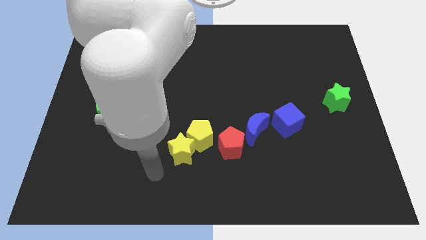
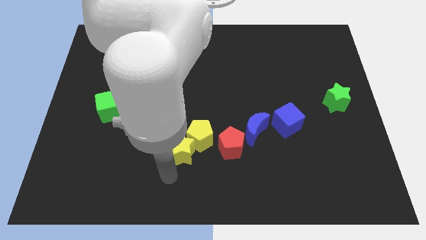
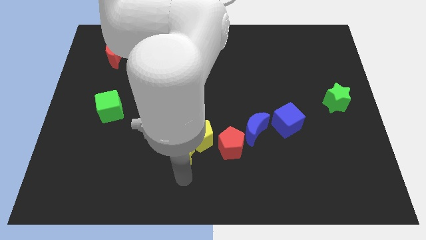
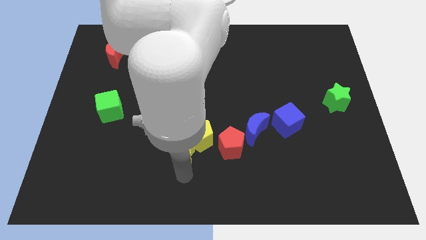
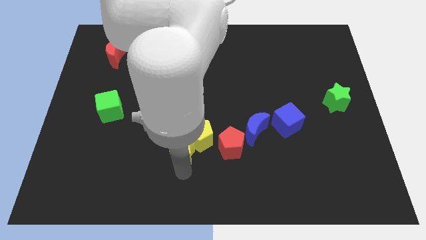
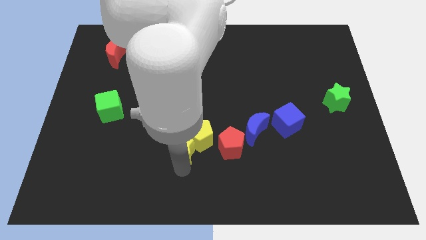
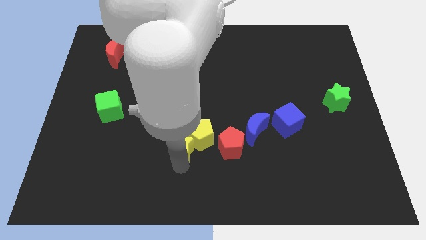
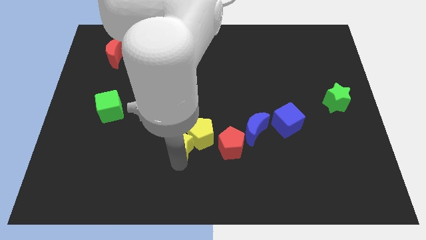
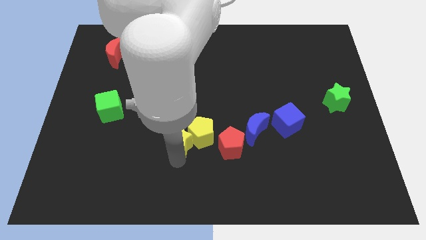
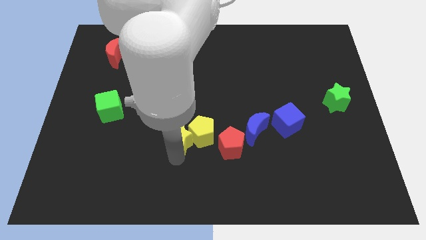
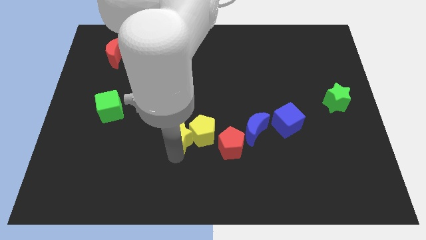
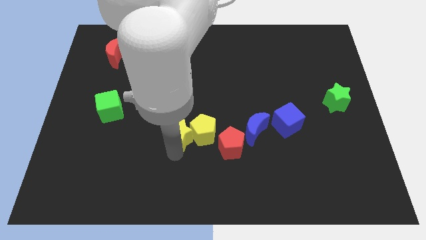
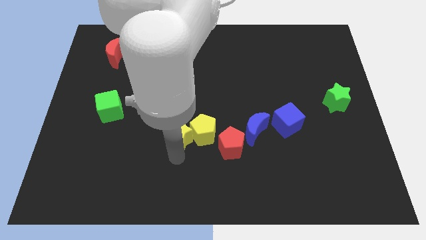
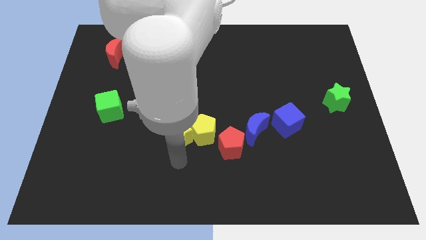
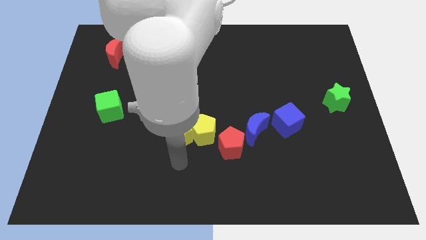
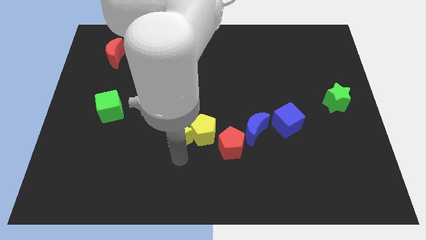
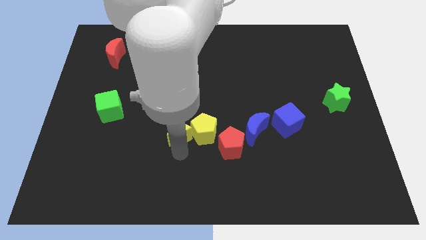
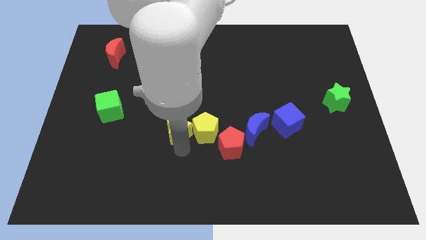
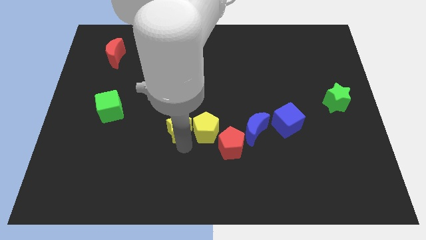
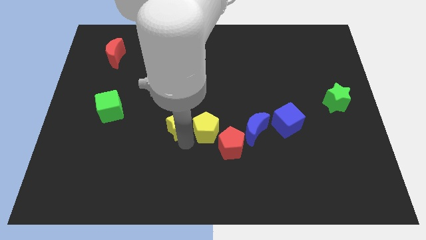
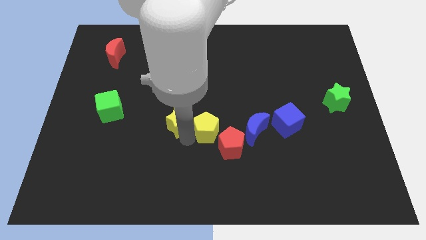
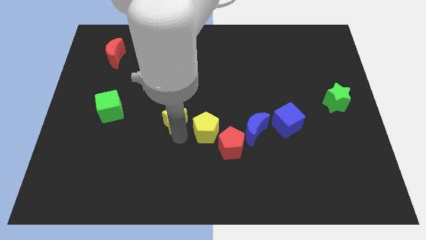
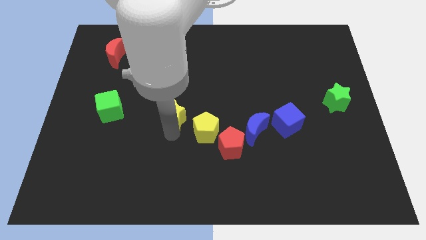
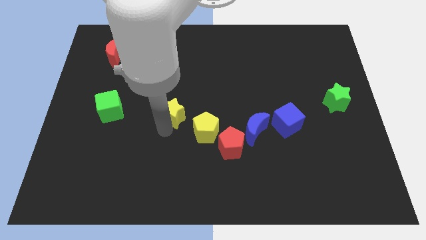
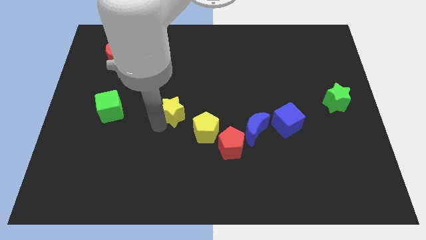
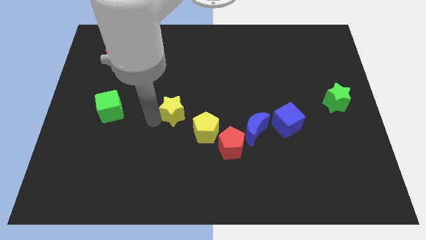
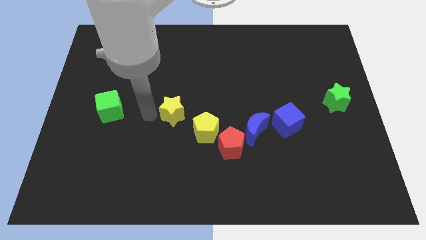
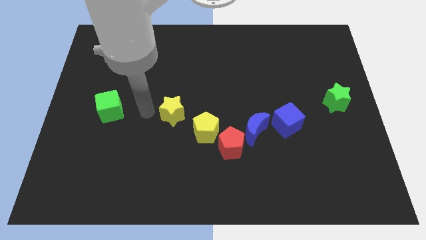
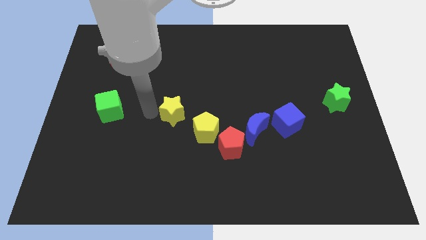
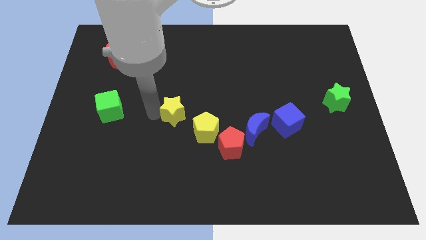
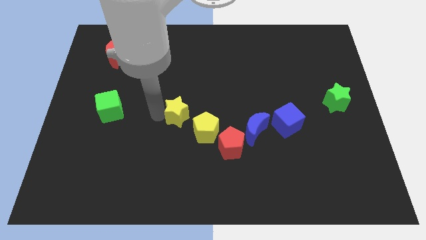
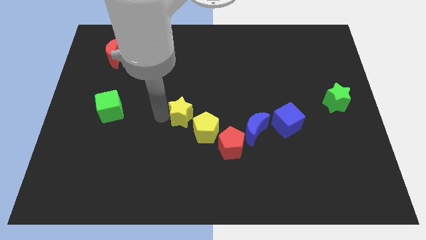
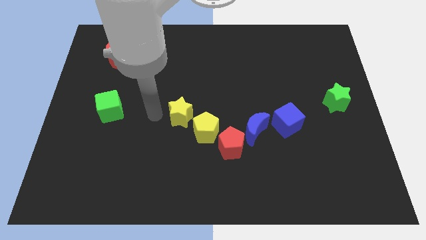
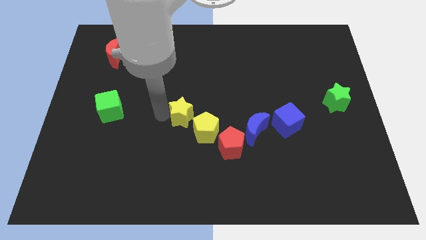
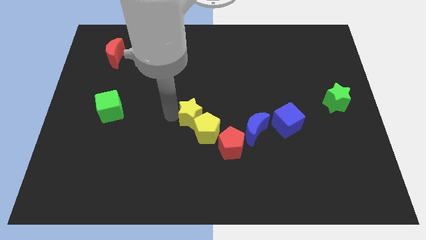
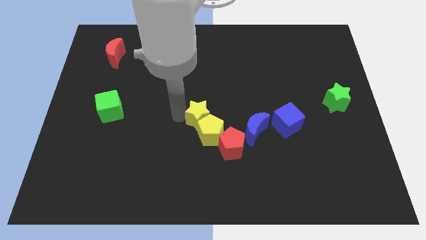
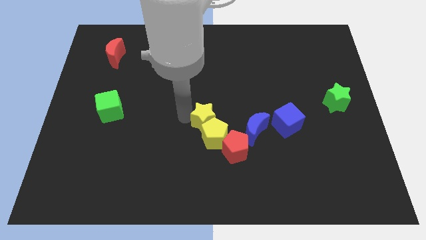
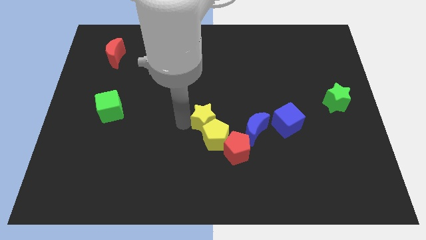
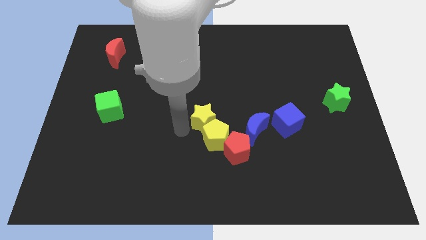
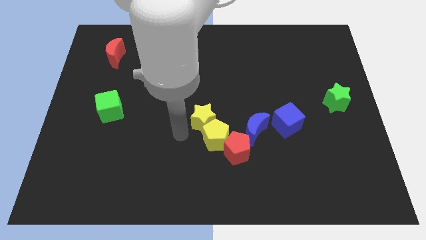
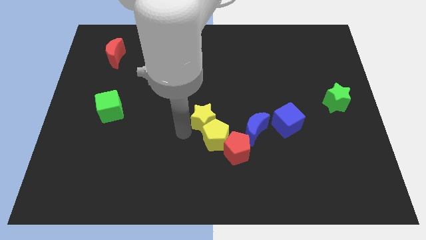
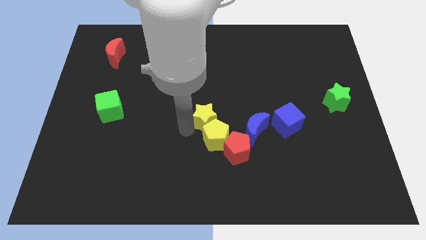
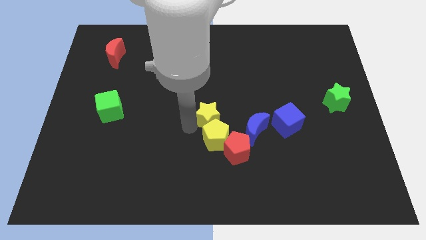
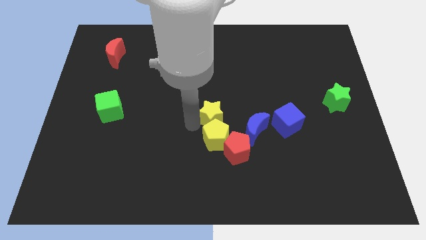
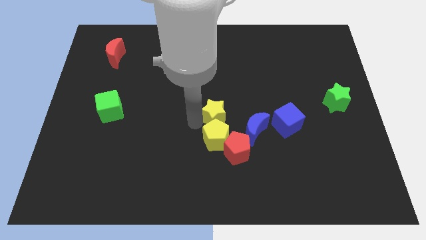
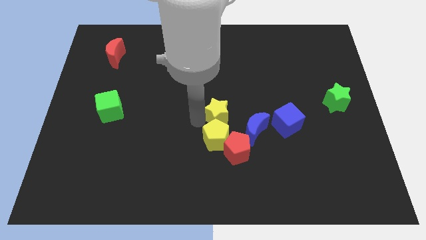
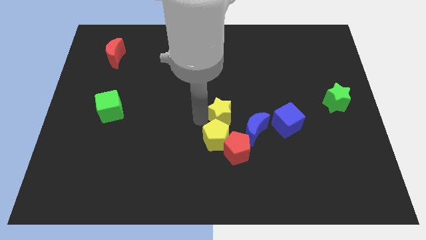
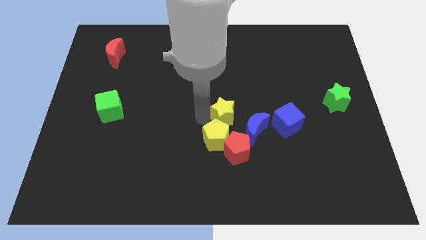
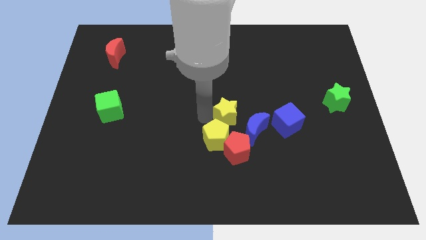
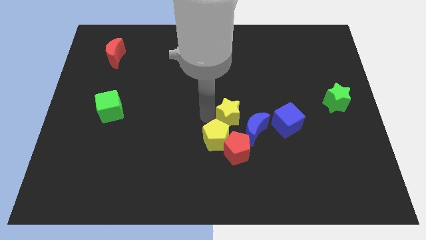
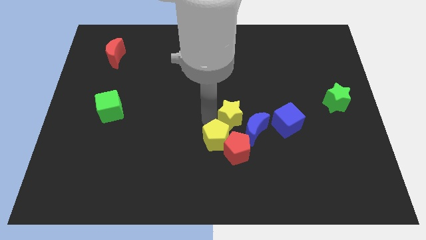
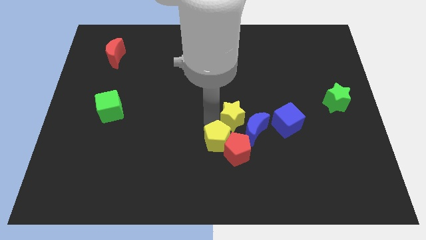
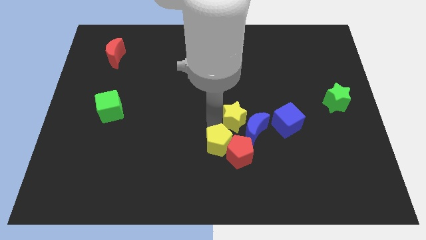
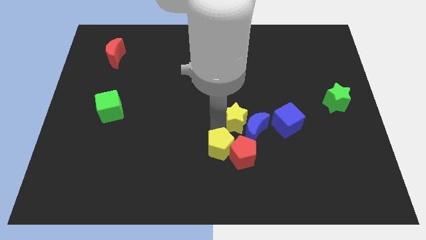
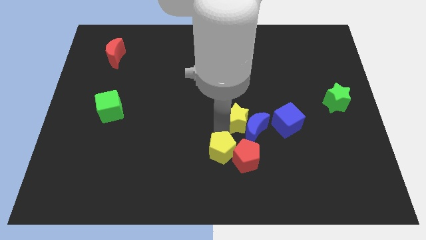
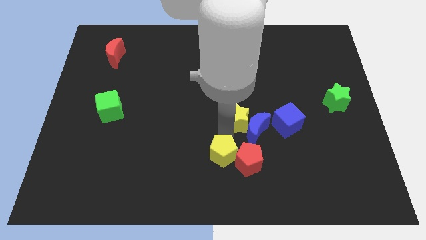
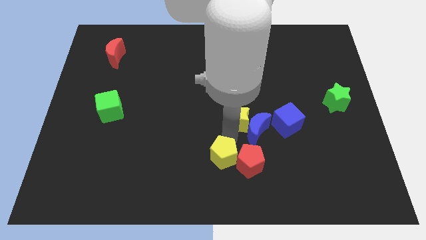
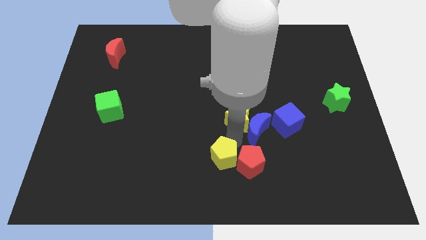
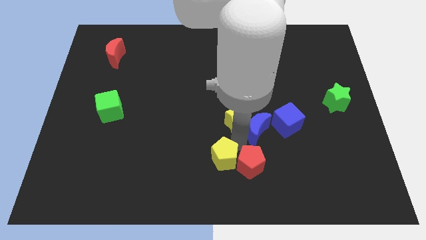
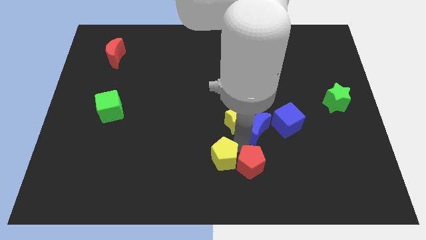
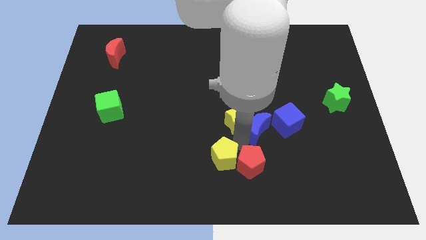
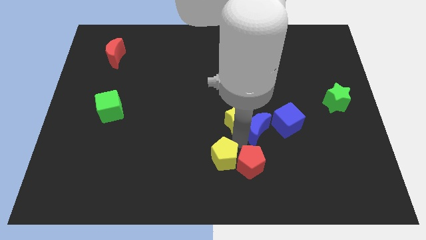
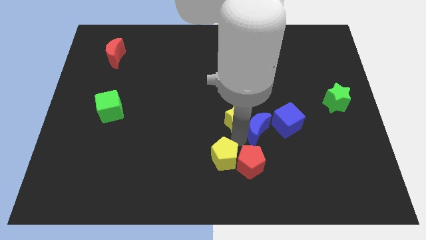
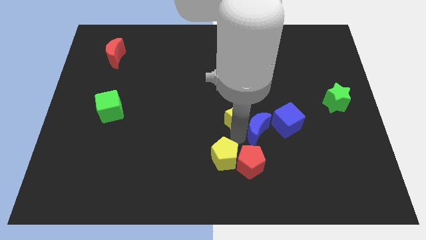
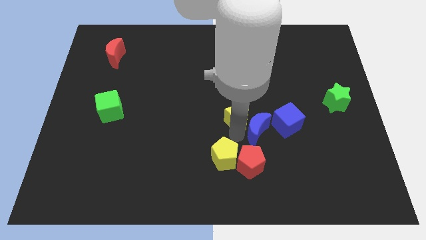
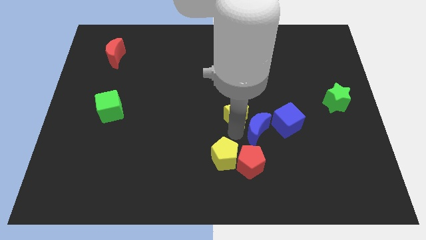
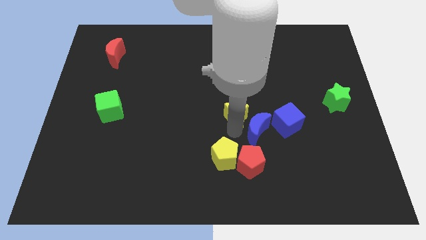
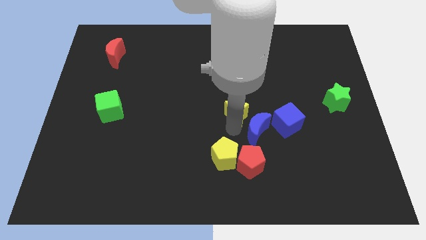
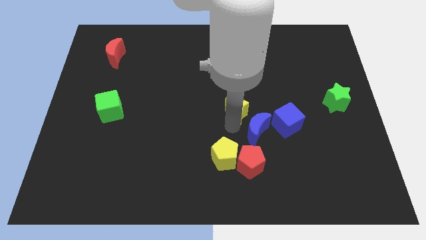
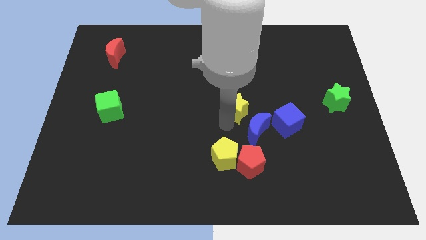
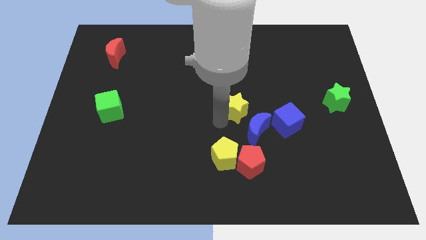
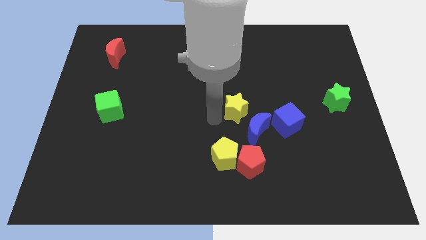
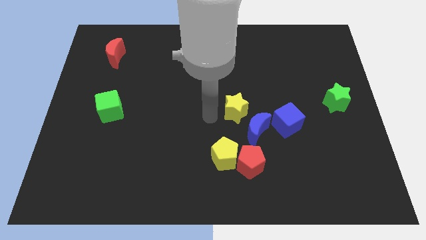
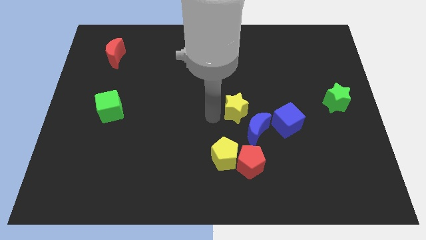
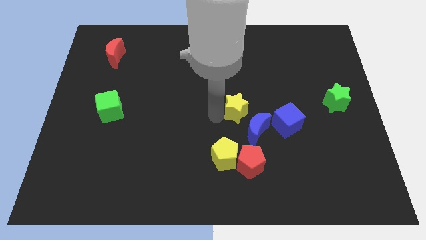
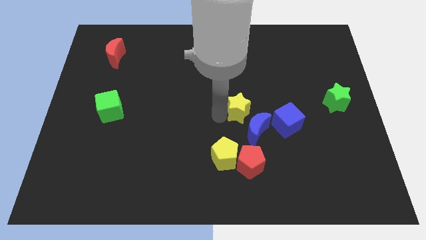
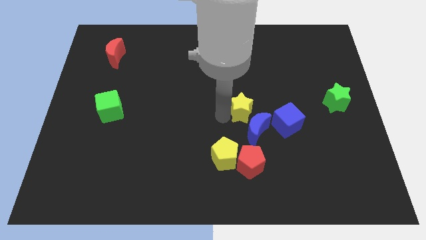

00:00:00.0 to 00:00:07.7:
slide the yellow star to the top left of the blue cube
